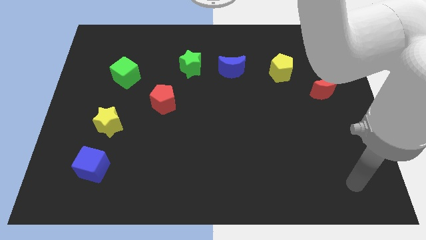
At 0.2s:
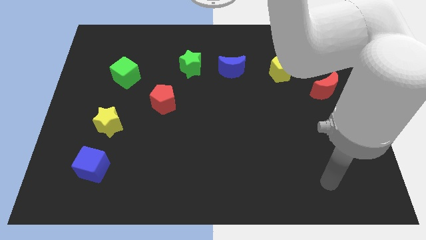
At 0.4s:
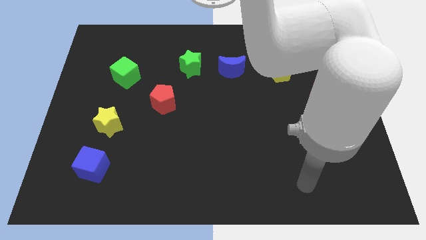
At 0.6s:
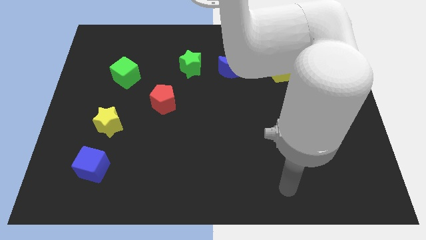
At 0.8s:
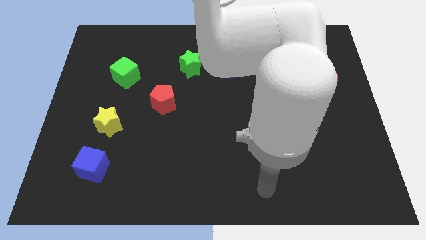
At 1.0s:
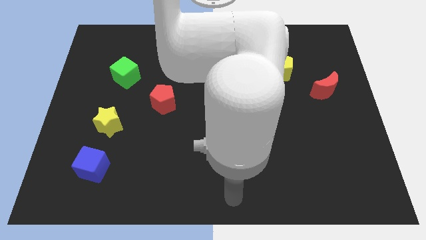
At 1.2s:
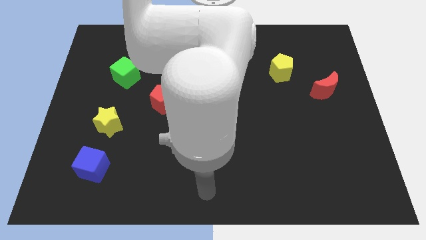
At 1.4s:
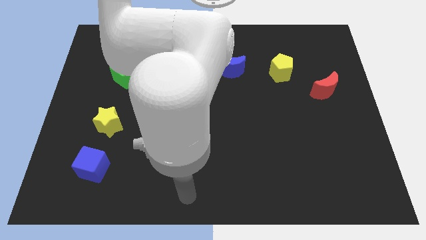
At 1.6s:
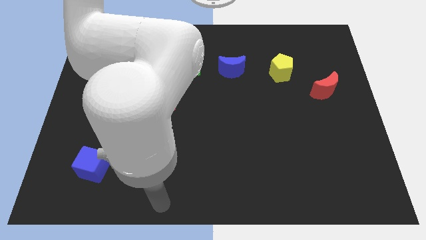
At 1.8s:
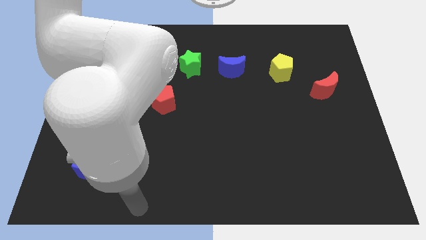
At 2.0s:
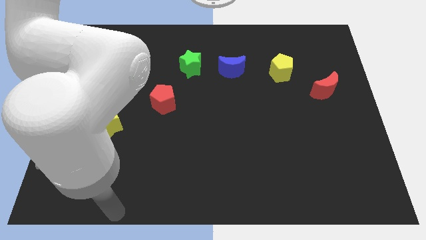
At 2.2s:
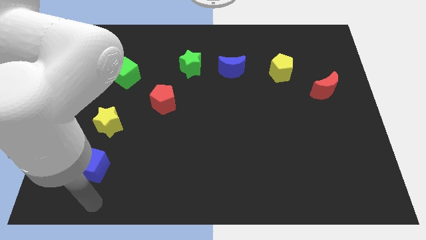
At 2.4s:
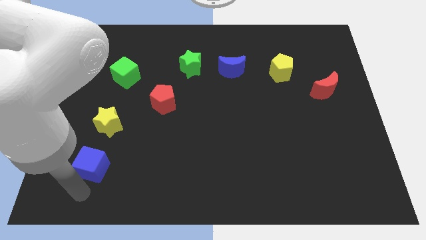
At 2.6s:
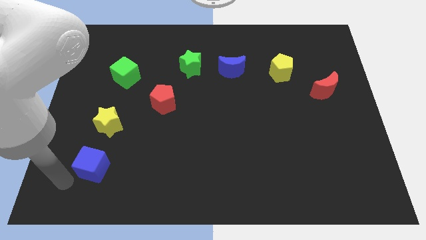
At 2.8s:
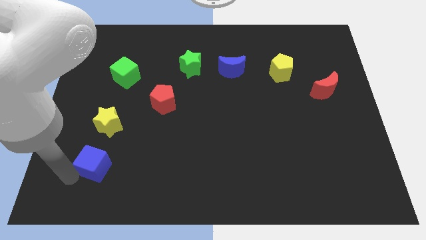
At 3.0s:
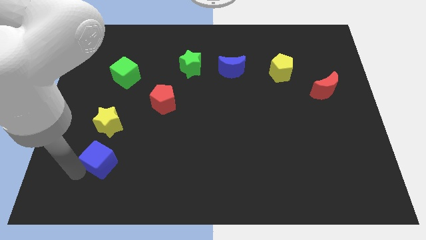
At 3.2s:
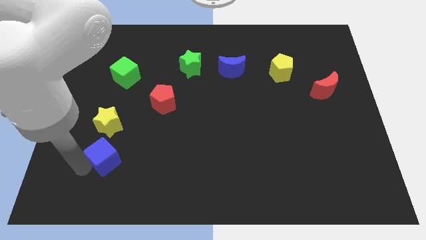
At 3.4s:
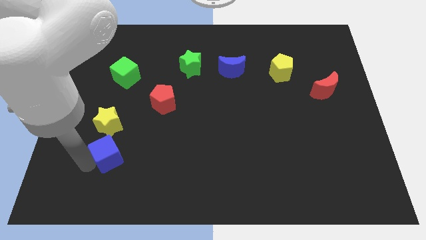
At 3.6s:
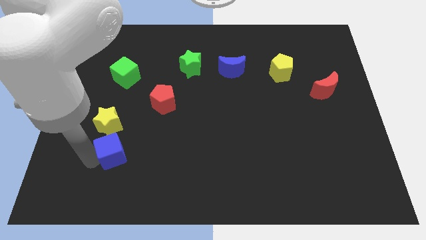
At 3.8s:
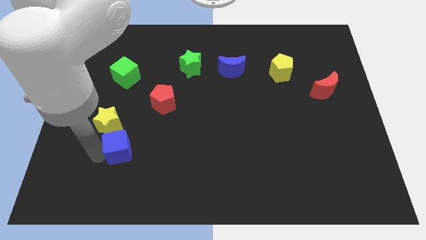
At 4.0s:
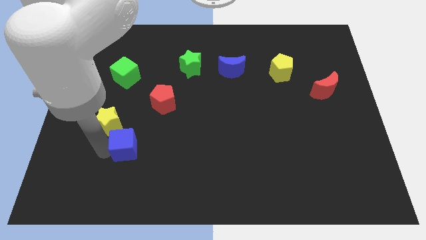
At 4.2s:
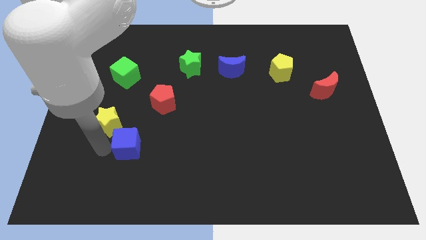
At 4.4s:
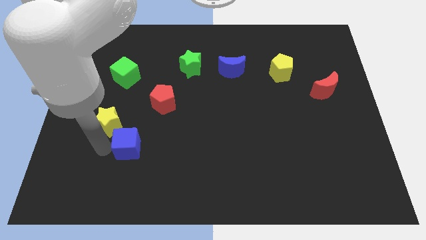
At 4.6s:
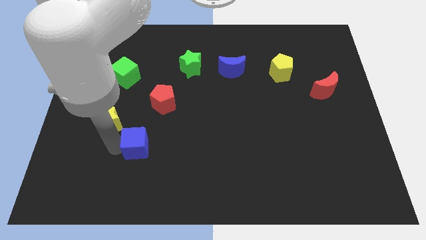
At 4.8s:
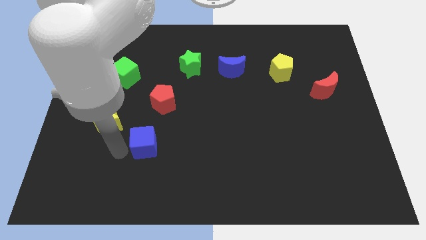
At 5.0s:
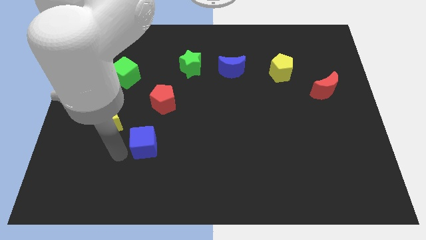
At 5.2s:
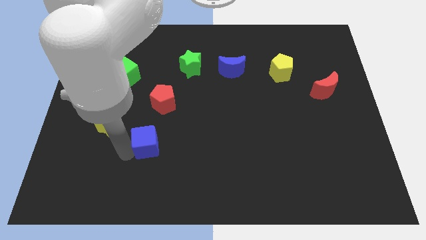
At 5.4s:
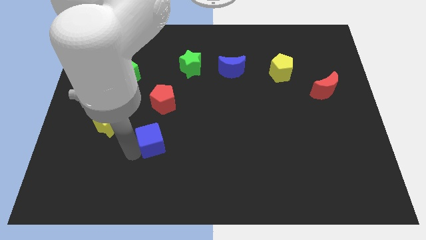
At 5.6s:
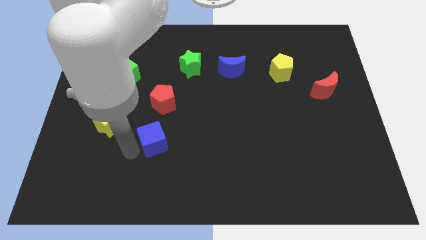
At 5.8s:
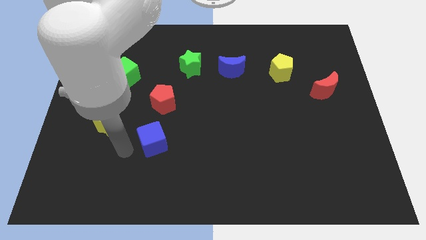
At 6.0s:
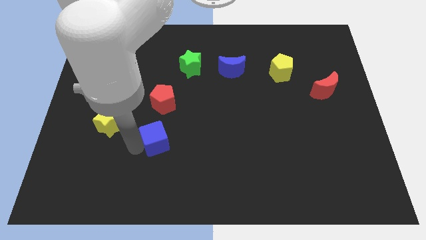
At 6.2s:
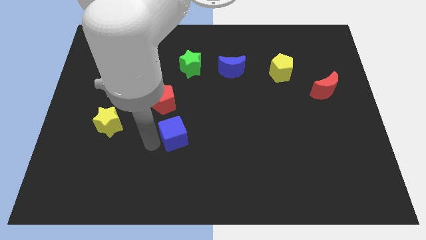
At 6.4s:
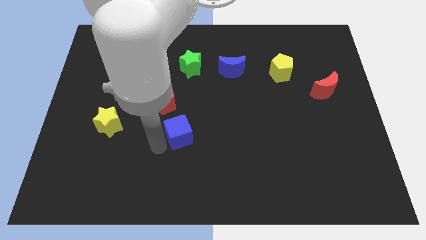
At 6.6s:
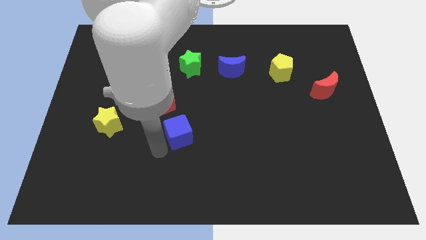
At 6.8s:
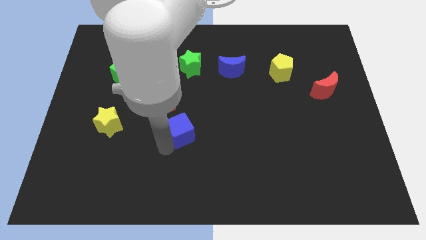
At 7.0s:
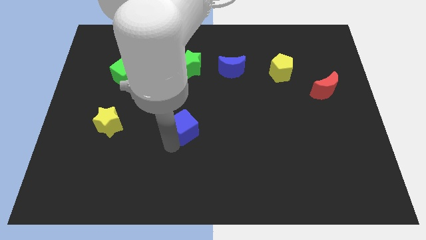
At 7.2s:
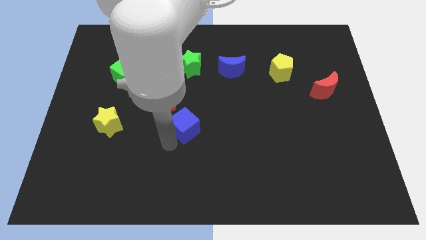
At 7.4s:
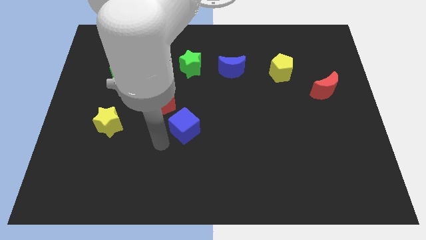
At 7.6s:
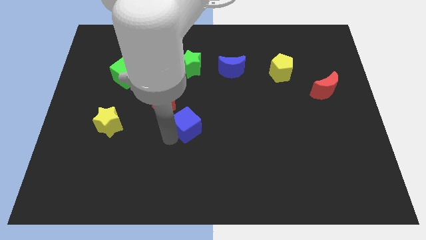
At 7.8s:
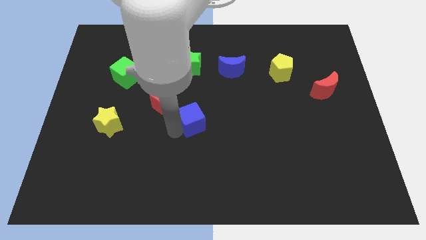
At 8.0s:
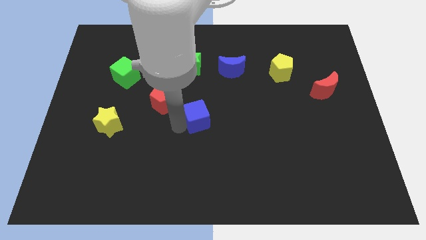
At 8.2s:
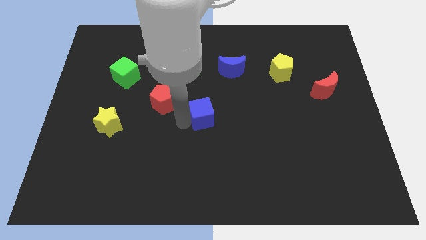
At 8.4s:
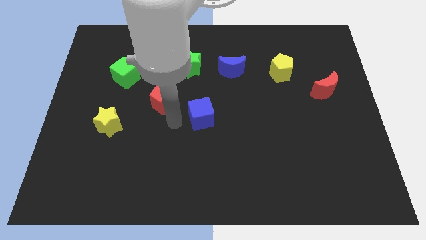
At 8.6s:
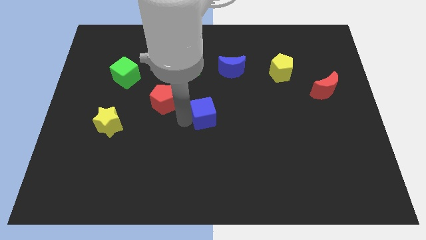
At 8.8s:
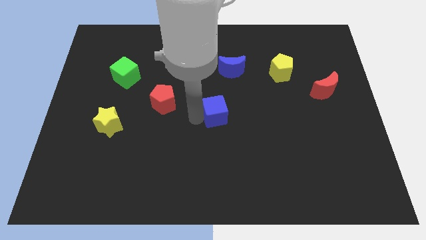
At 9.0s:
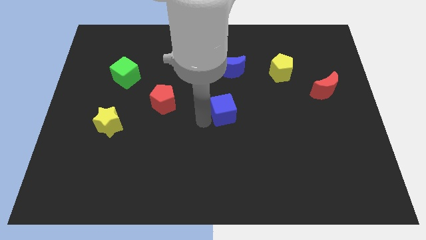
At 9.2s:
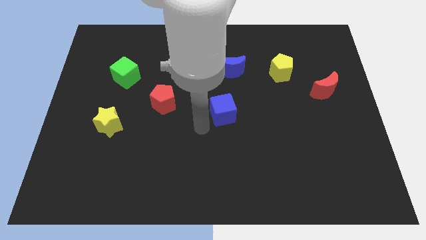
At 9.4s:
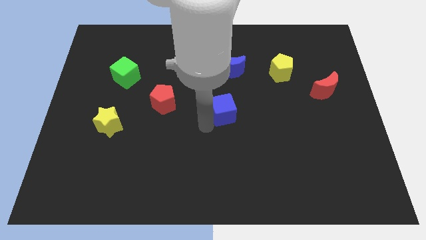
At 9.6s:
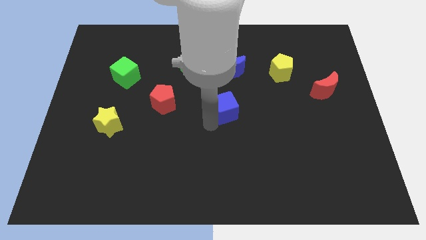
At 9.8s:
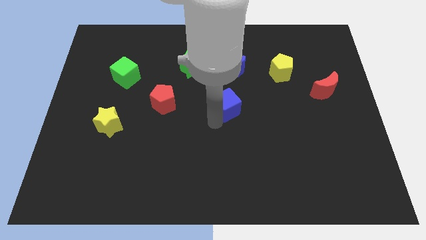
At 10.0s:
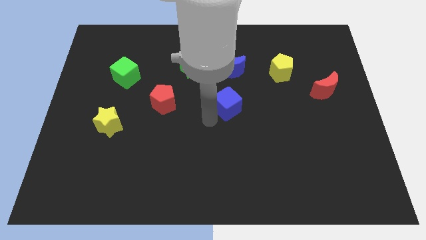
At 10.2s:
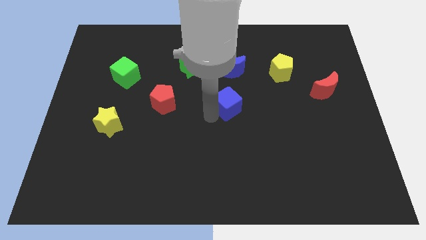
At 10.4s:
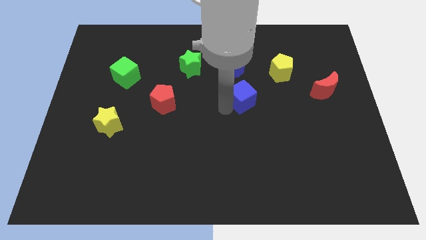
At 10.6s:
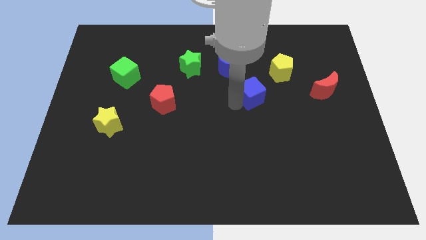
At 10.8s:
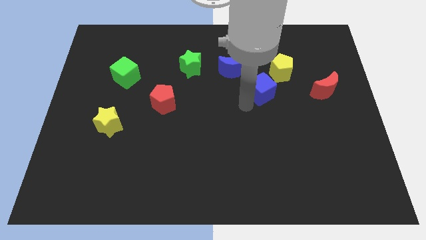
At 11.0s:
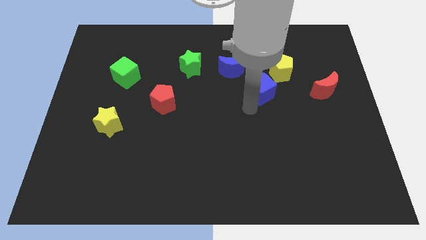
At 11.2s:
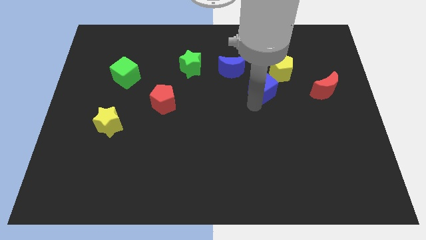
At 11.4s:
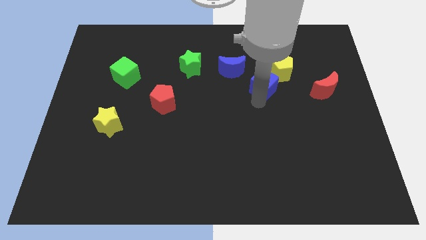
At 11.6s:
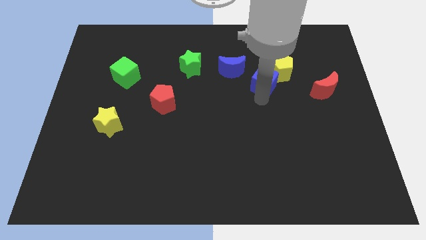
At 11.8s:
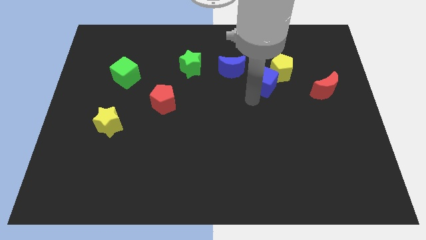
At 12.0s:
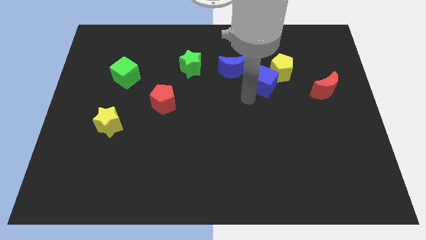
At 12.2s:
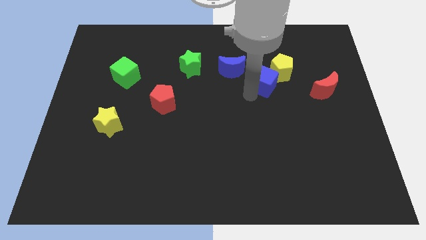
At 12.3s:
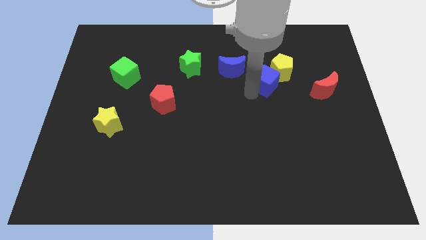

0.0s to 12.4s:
move the blue cube to the yellow pentagon

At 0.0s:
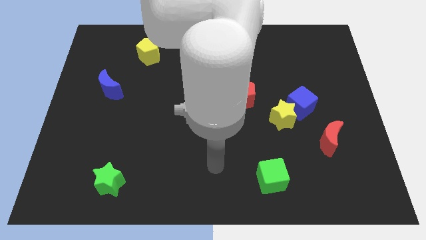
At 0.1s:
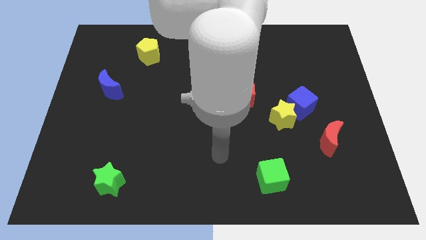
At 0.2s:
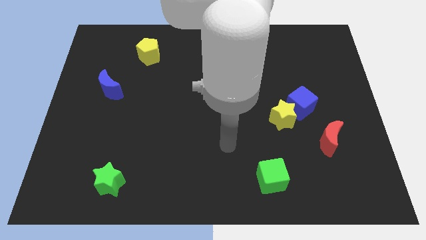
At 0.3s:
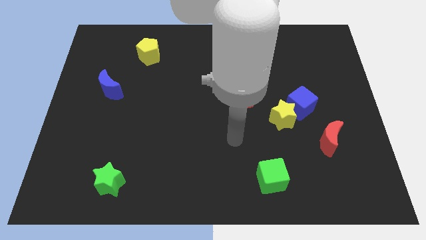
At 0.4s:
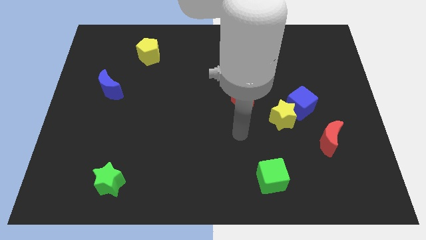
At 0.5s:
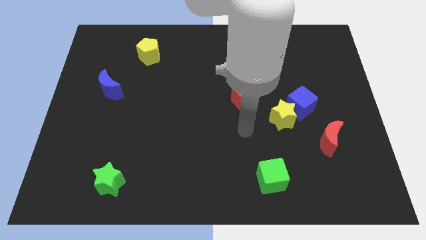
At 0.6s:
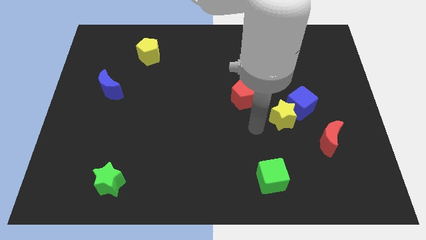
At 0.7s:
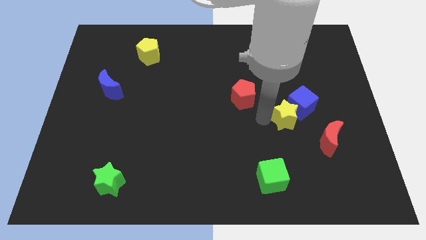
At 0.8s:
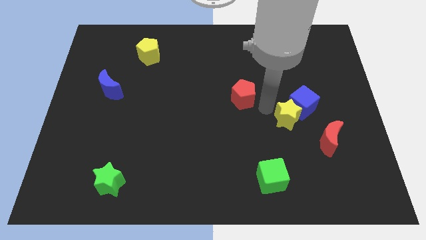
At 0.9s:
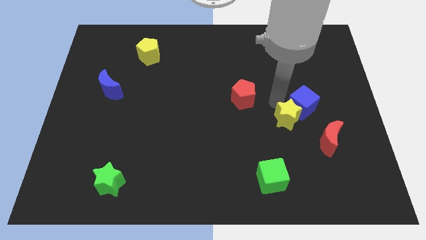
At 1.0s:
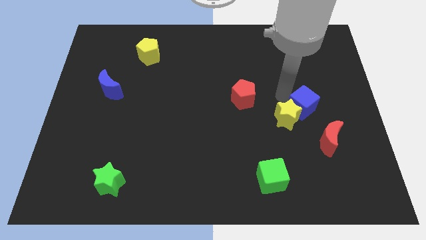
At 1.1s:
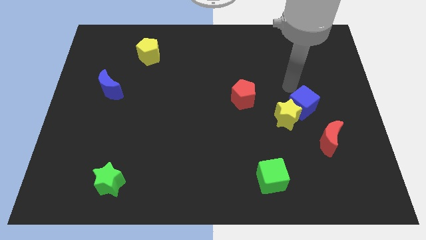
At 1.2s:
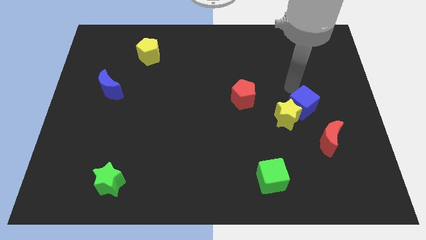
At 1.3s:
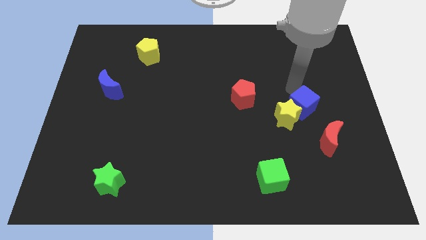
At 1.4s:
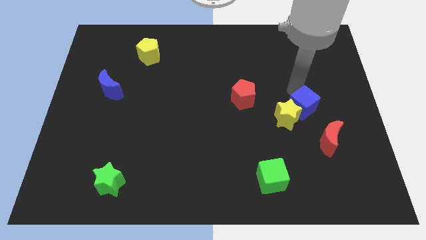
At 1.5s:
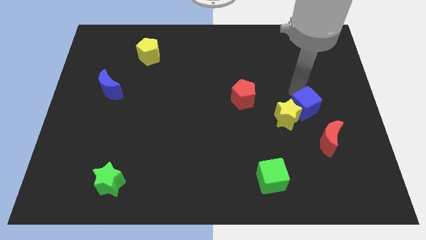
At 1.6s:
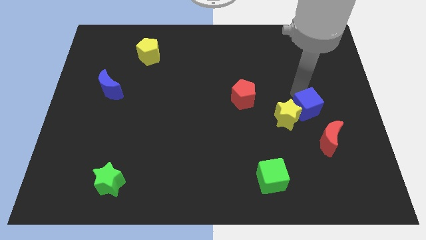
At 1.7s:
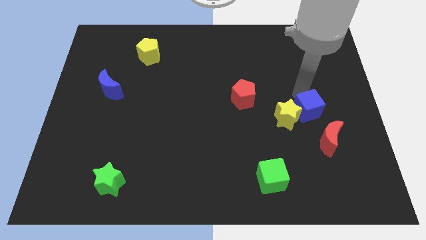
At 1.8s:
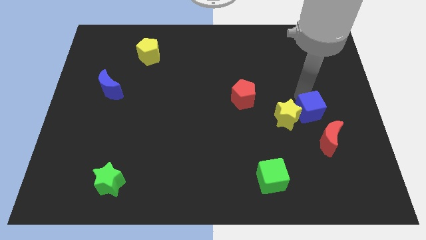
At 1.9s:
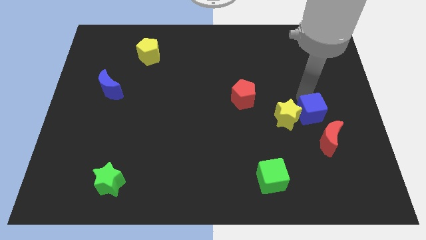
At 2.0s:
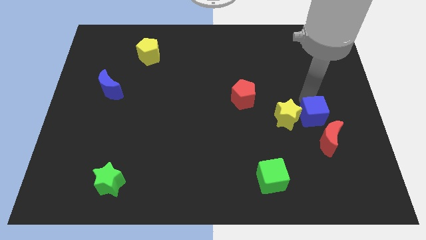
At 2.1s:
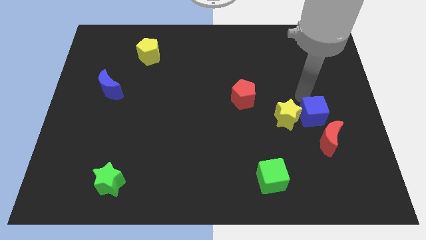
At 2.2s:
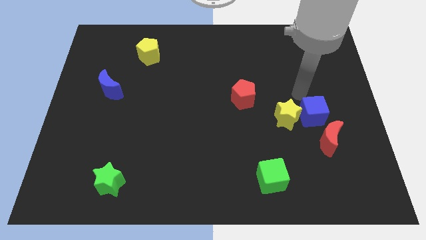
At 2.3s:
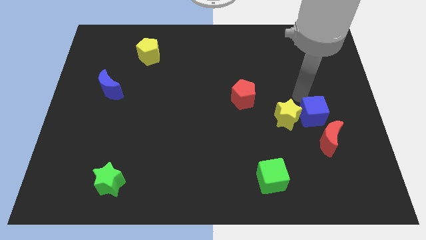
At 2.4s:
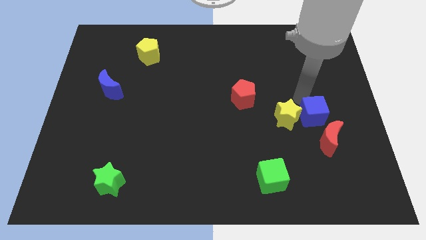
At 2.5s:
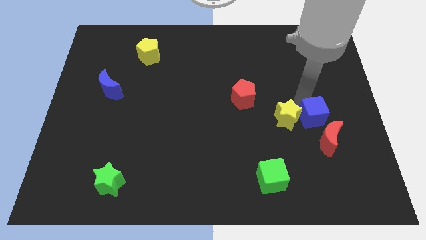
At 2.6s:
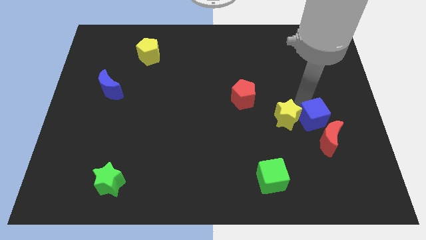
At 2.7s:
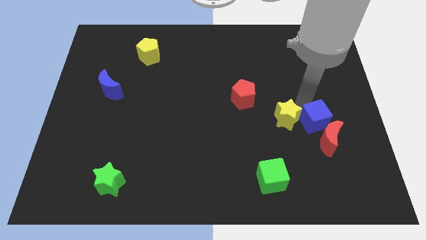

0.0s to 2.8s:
push the blue cube close to the red moon
